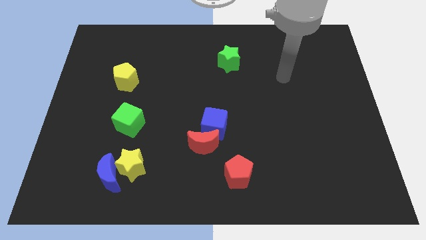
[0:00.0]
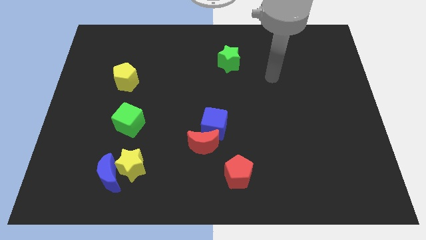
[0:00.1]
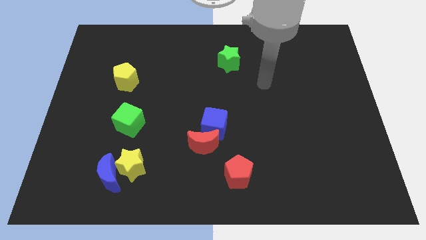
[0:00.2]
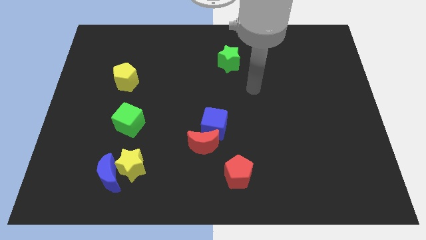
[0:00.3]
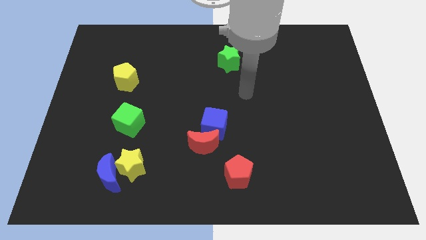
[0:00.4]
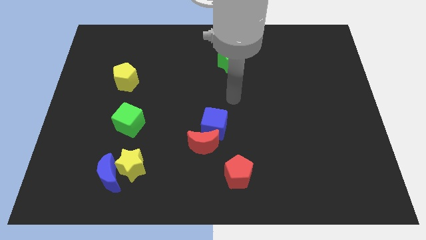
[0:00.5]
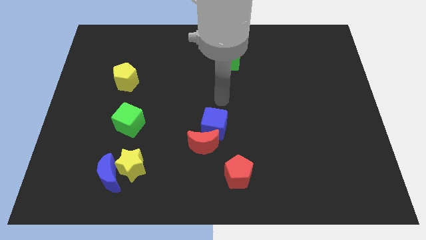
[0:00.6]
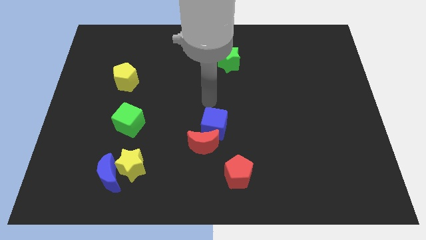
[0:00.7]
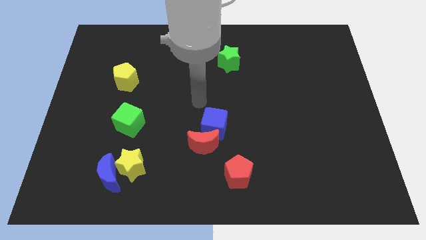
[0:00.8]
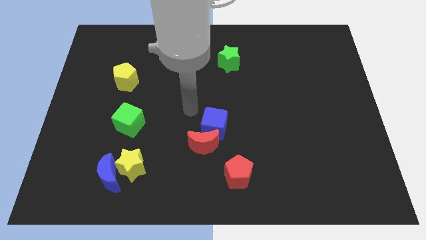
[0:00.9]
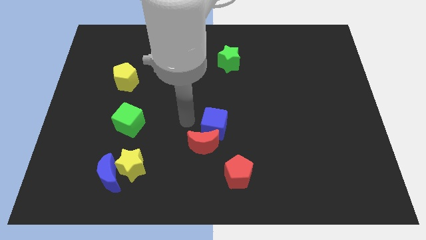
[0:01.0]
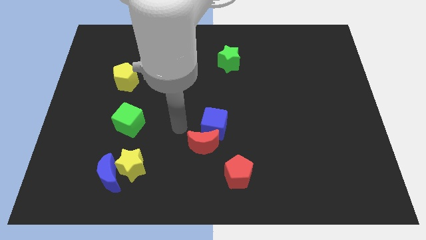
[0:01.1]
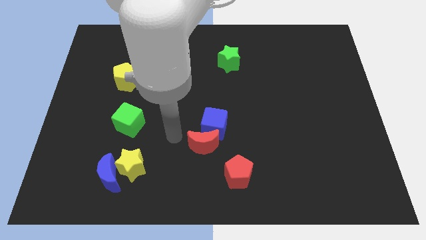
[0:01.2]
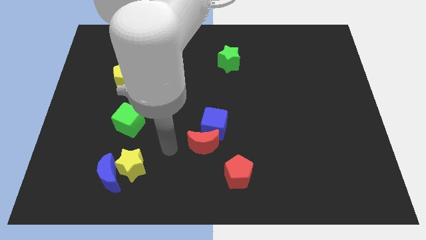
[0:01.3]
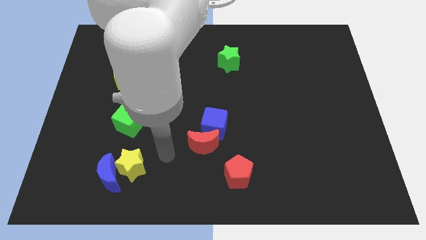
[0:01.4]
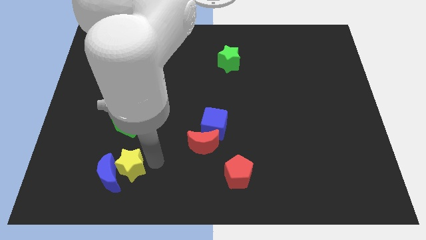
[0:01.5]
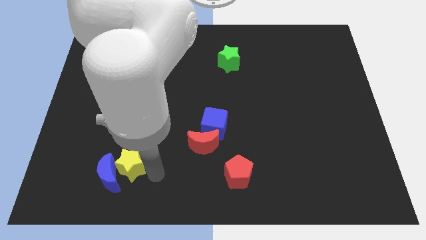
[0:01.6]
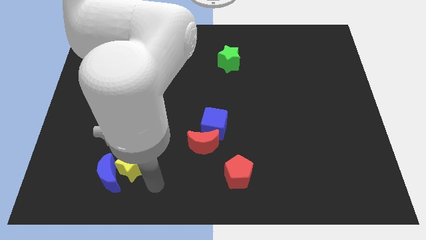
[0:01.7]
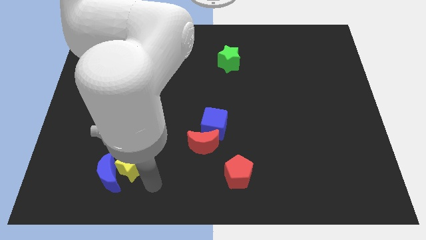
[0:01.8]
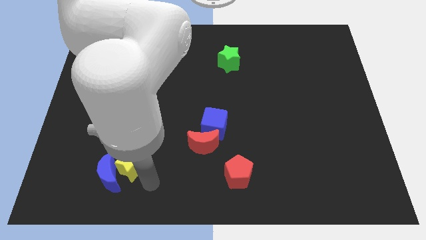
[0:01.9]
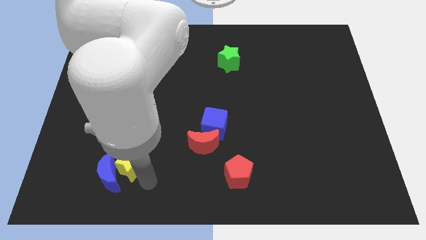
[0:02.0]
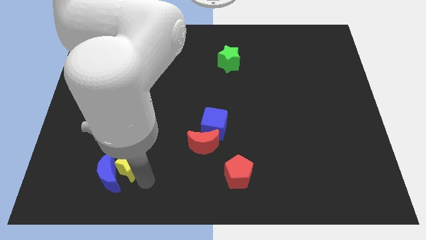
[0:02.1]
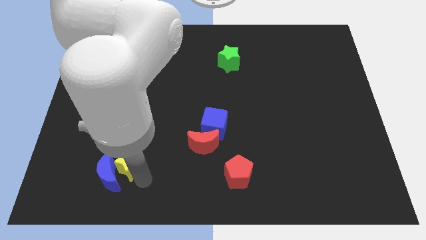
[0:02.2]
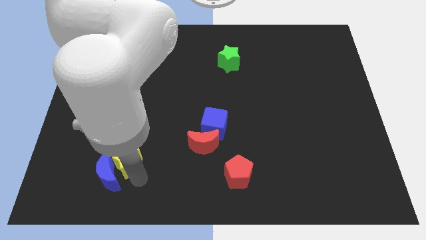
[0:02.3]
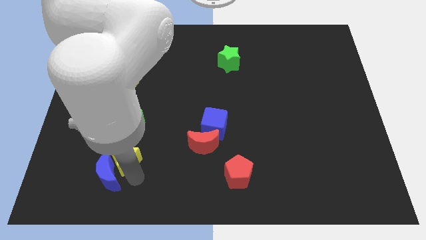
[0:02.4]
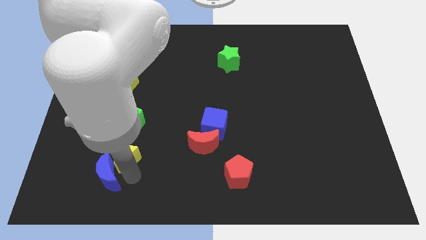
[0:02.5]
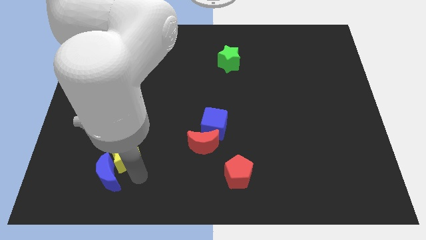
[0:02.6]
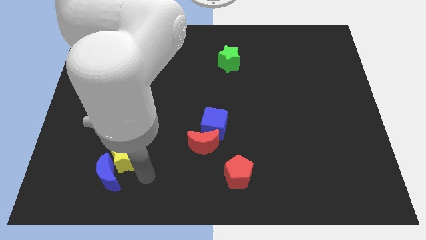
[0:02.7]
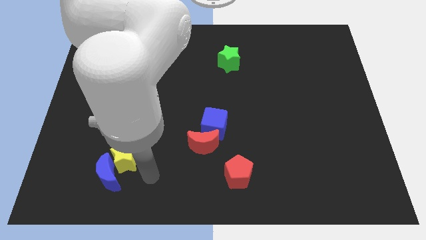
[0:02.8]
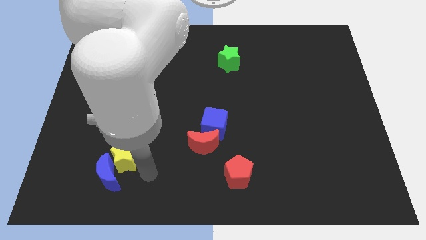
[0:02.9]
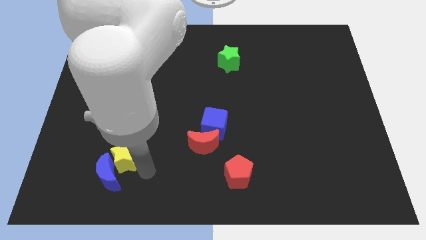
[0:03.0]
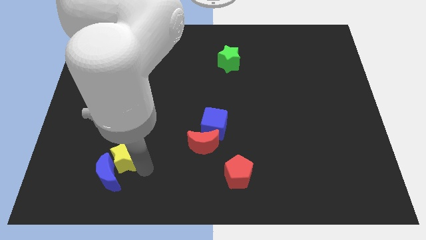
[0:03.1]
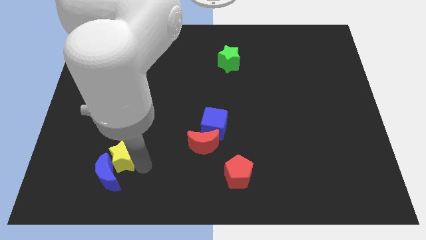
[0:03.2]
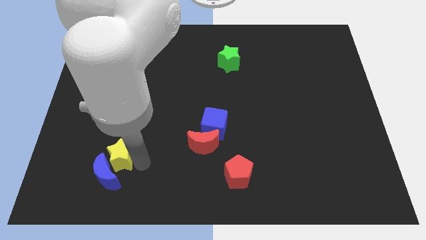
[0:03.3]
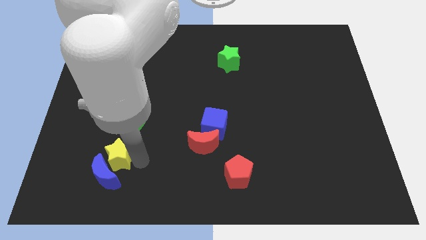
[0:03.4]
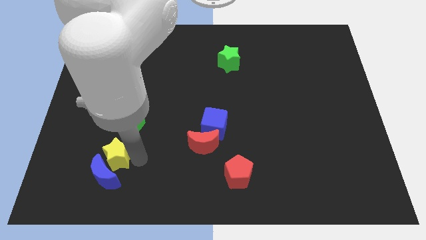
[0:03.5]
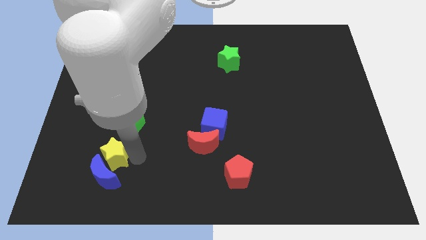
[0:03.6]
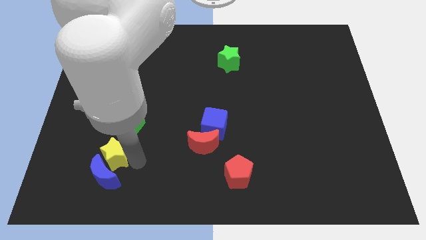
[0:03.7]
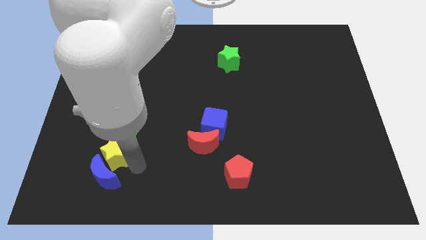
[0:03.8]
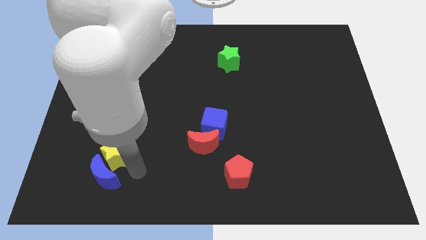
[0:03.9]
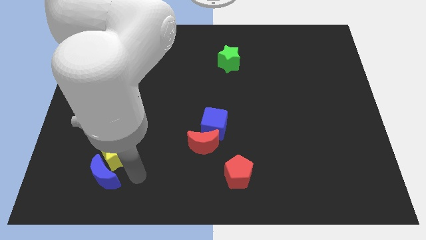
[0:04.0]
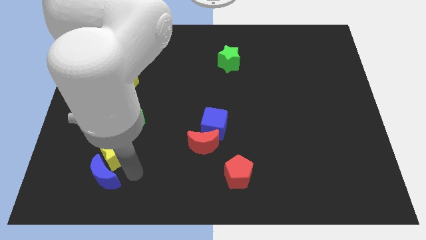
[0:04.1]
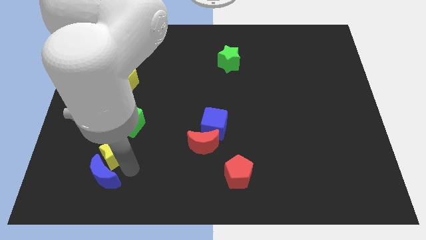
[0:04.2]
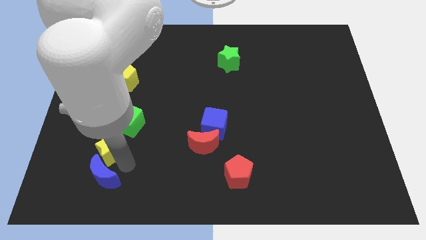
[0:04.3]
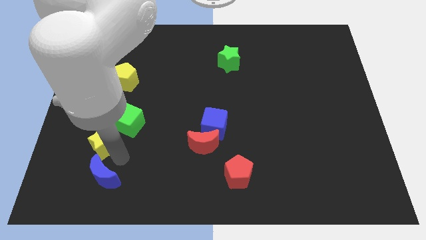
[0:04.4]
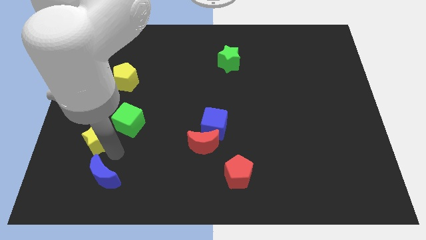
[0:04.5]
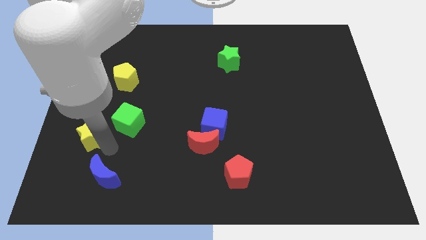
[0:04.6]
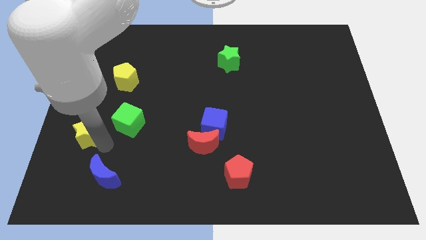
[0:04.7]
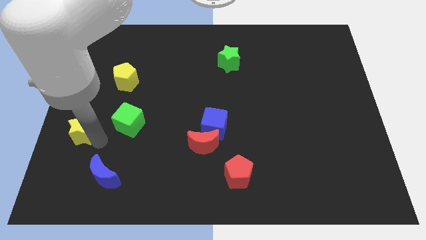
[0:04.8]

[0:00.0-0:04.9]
put the yellow star to the left side

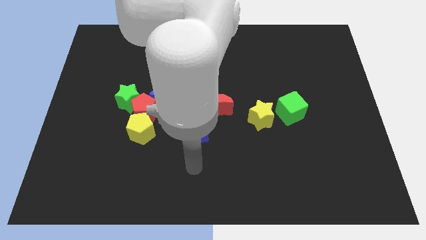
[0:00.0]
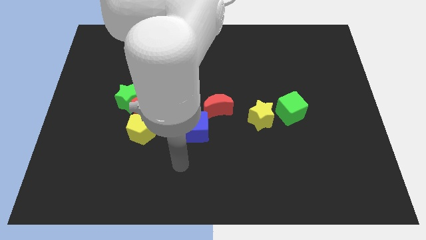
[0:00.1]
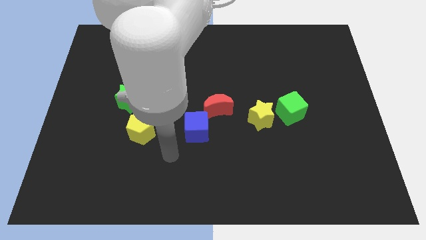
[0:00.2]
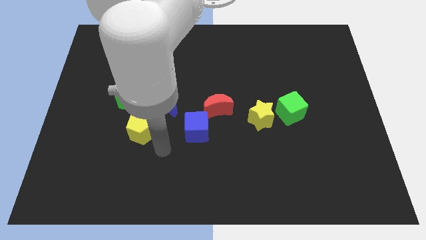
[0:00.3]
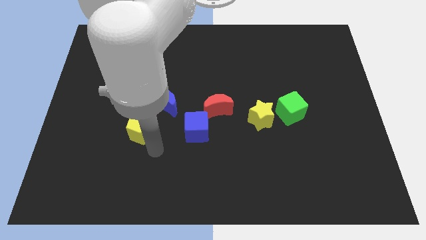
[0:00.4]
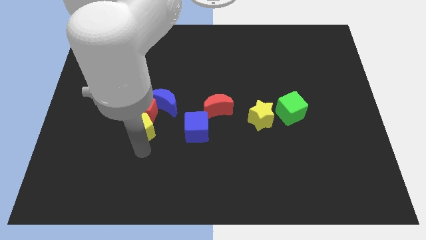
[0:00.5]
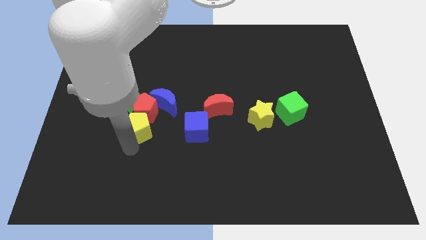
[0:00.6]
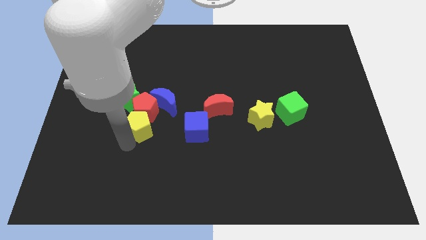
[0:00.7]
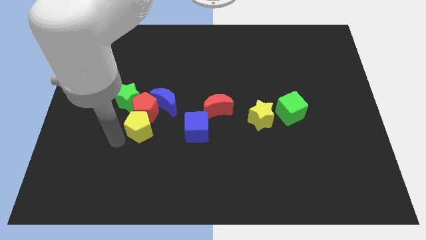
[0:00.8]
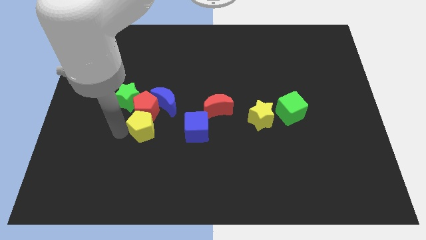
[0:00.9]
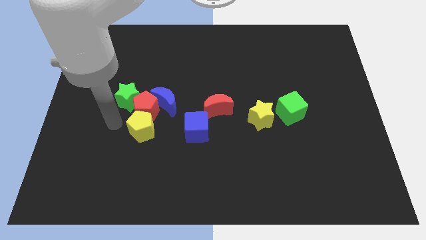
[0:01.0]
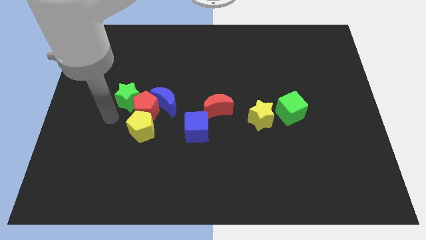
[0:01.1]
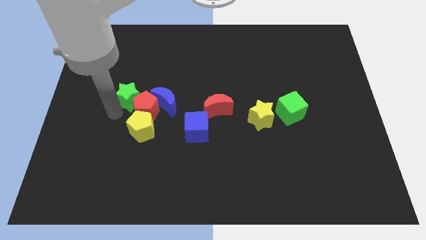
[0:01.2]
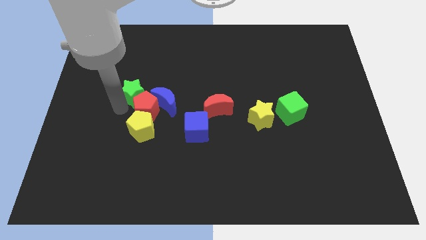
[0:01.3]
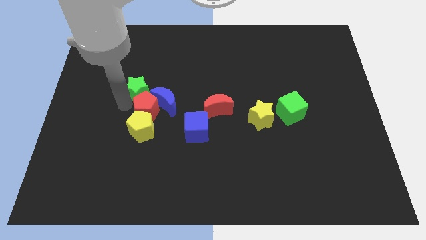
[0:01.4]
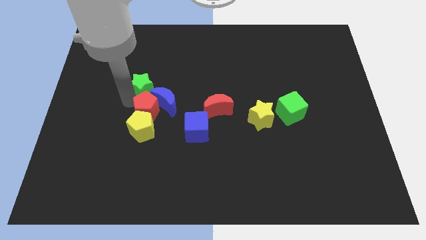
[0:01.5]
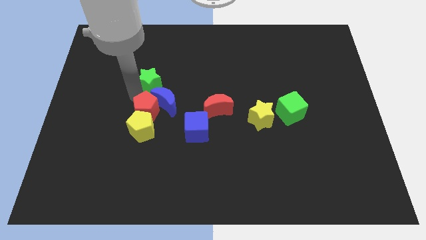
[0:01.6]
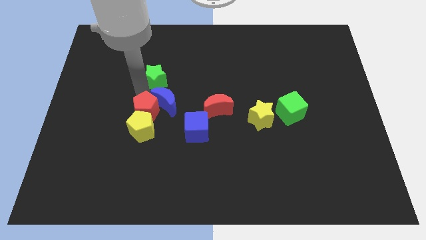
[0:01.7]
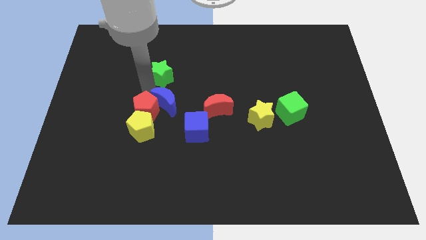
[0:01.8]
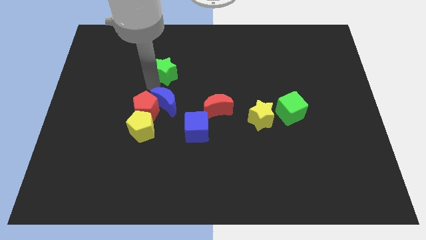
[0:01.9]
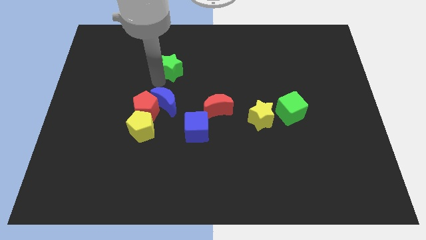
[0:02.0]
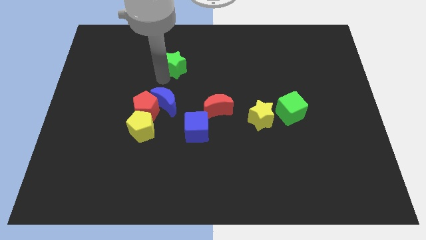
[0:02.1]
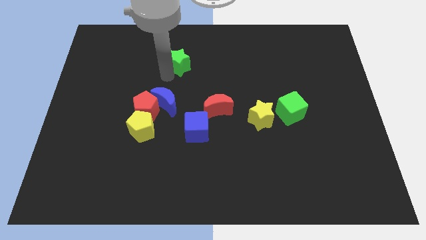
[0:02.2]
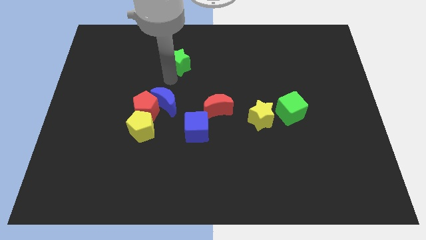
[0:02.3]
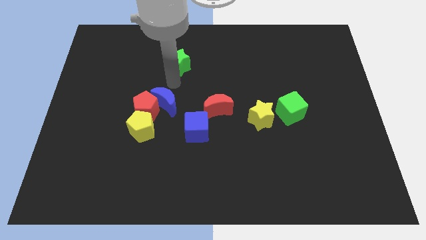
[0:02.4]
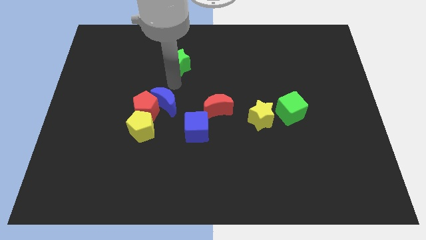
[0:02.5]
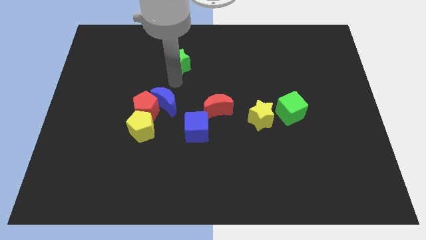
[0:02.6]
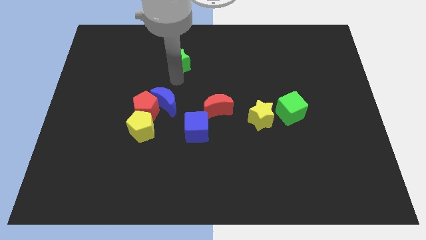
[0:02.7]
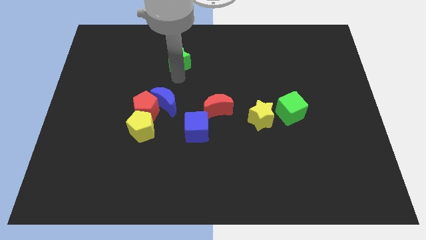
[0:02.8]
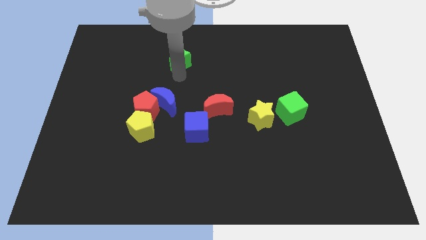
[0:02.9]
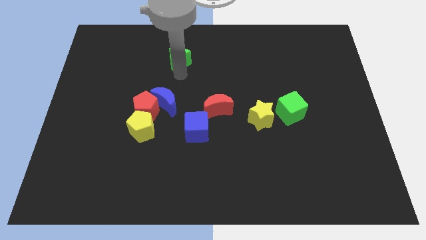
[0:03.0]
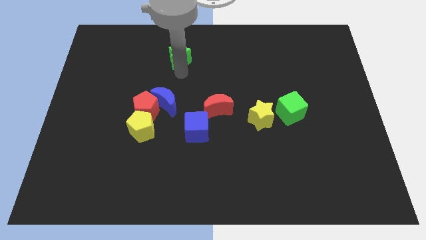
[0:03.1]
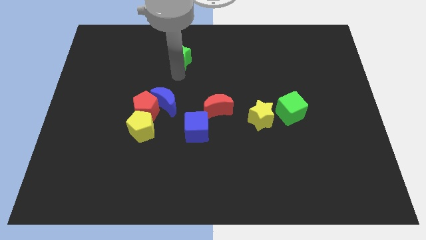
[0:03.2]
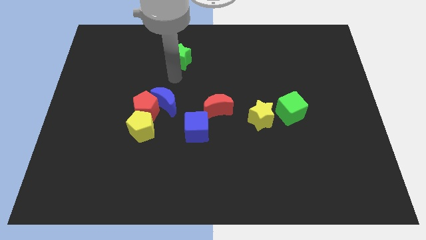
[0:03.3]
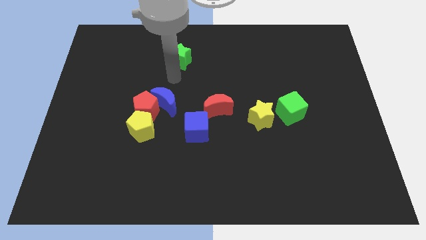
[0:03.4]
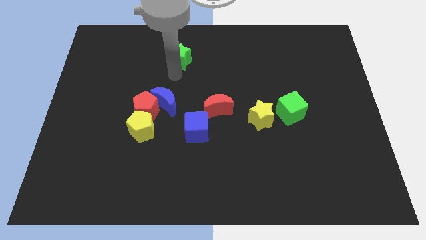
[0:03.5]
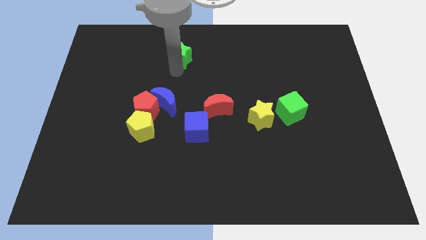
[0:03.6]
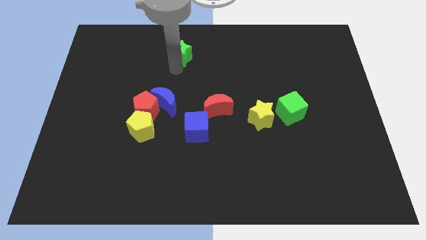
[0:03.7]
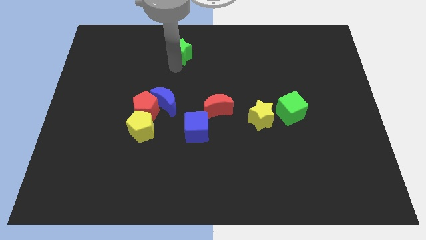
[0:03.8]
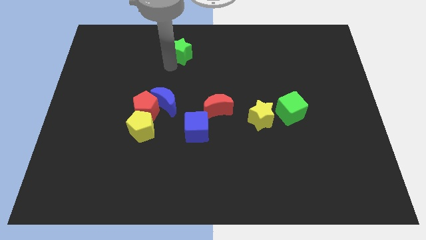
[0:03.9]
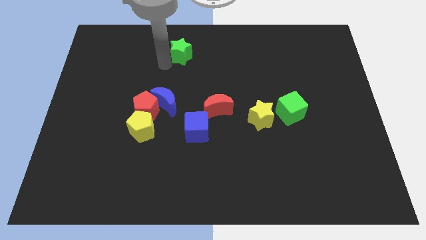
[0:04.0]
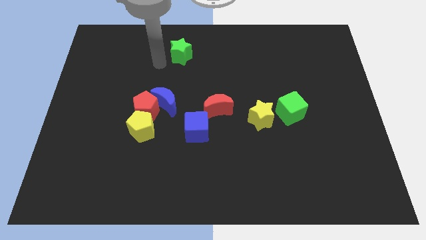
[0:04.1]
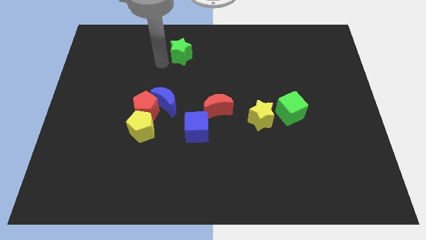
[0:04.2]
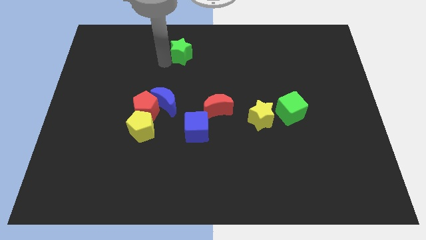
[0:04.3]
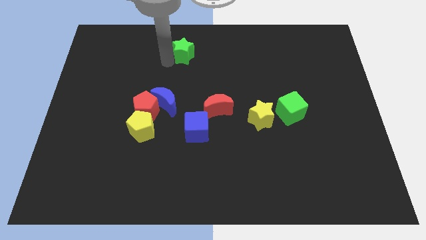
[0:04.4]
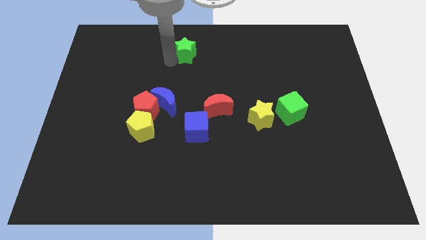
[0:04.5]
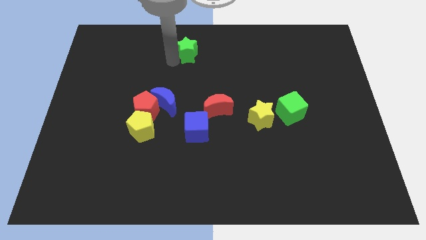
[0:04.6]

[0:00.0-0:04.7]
move the green star to the top
